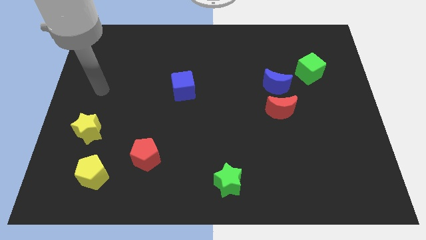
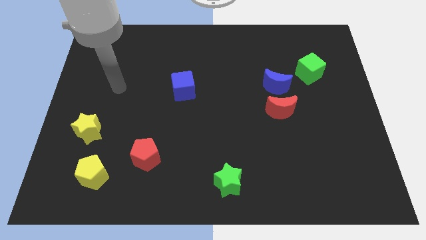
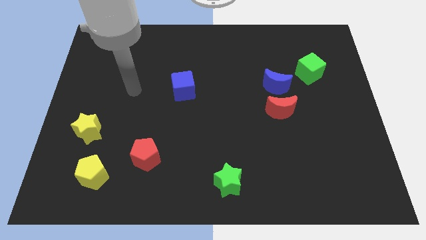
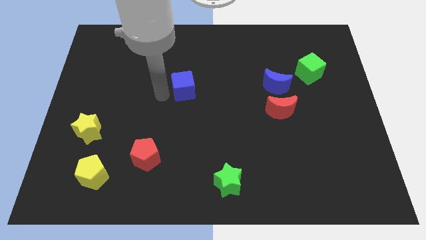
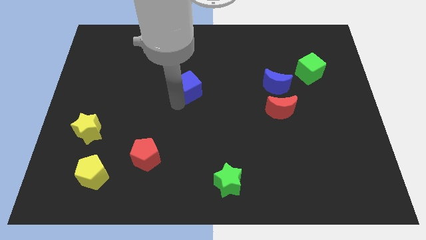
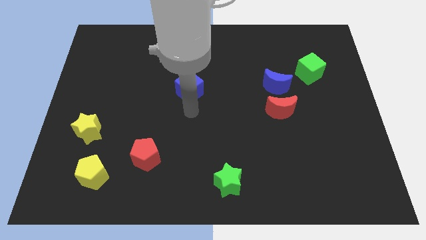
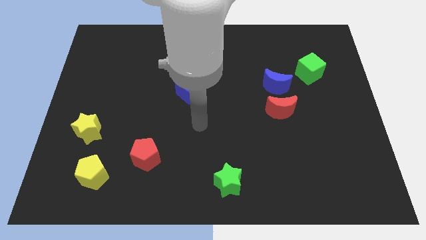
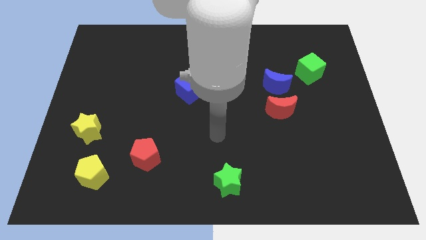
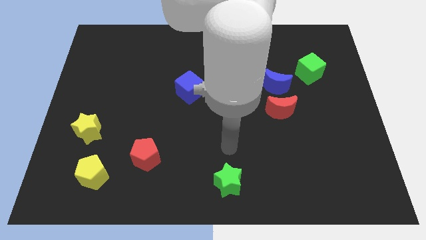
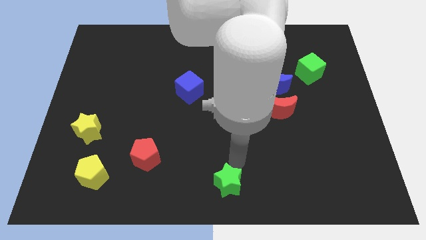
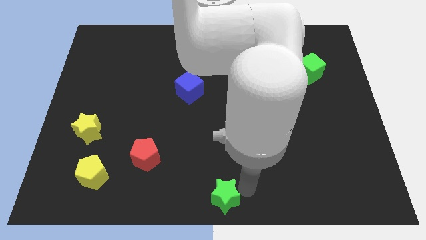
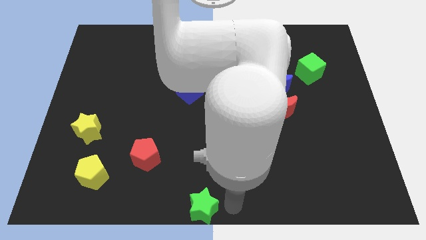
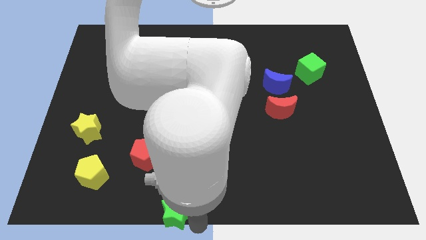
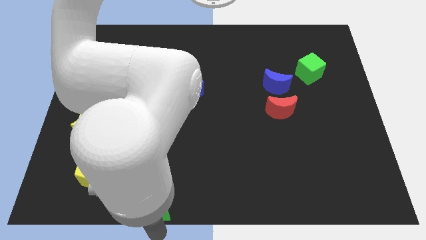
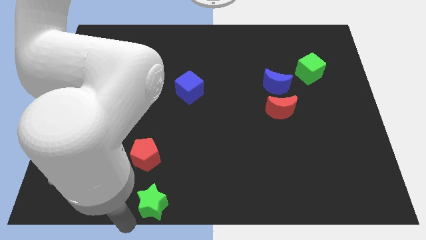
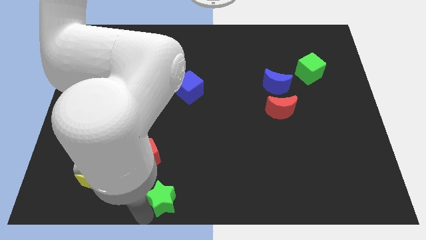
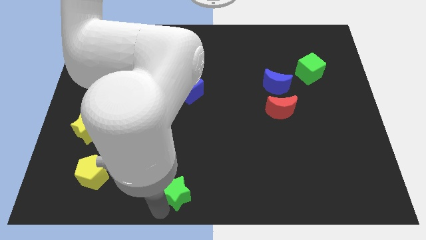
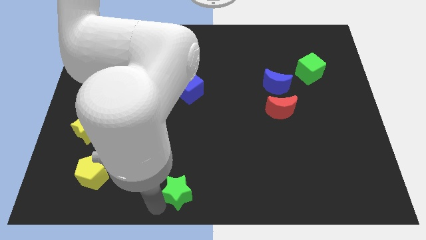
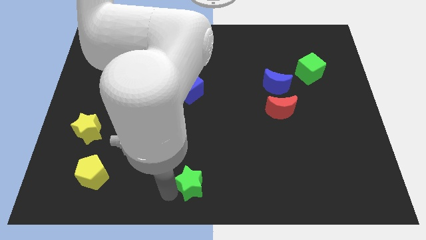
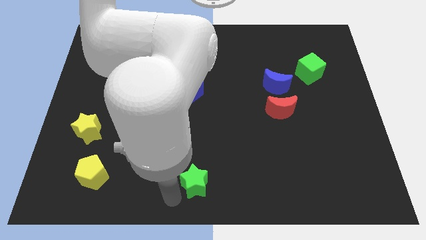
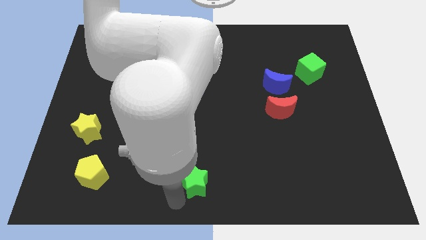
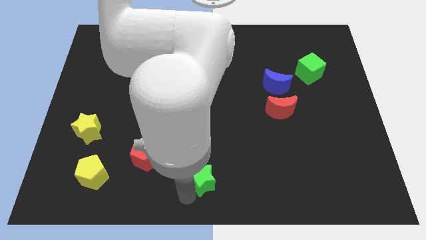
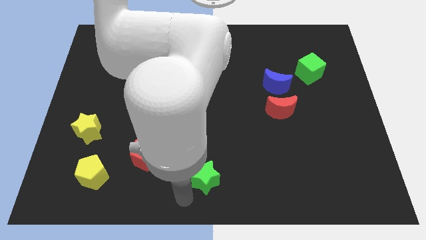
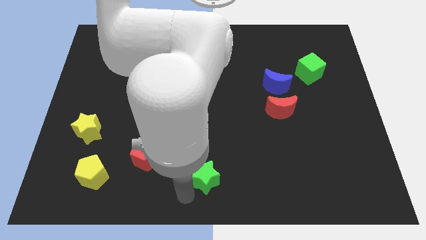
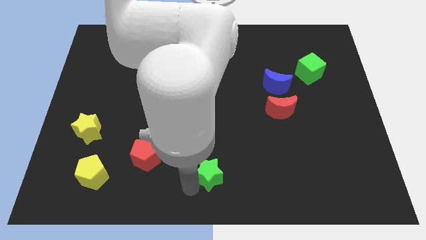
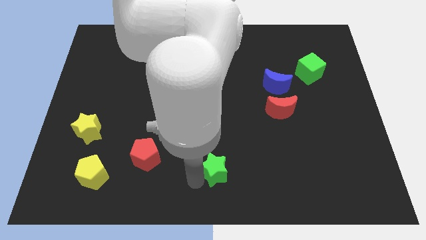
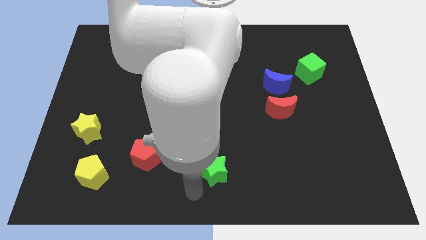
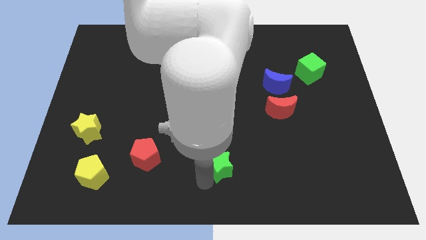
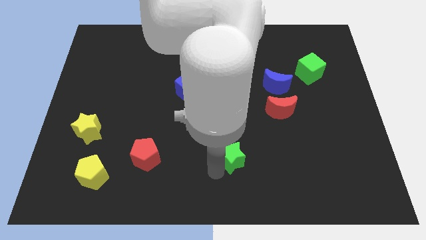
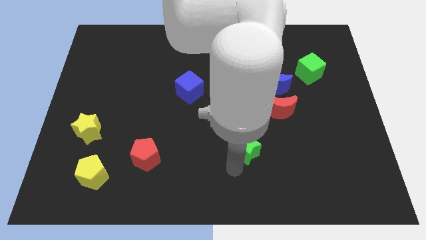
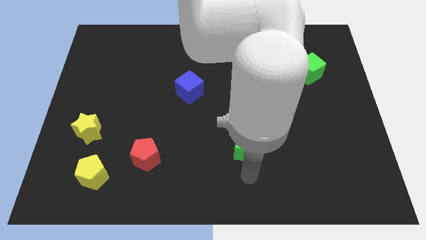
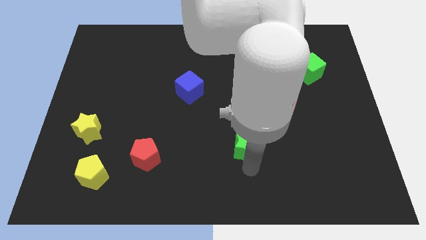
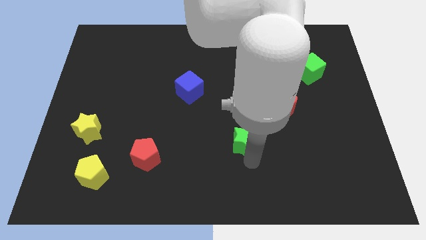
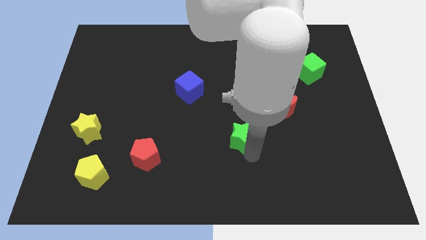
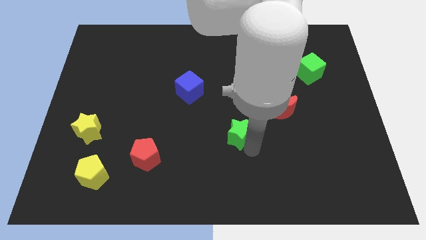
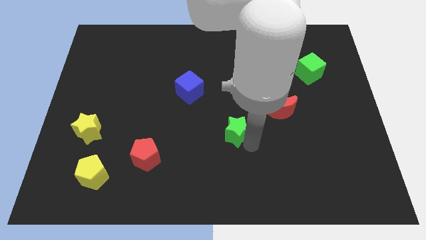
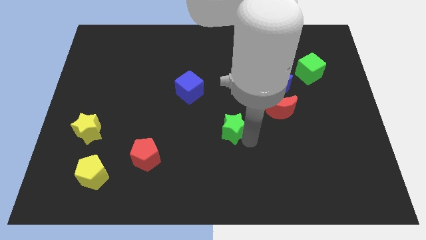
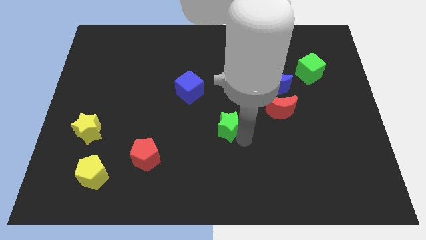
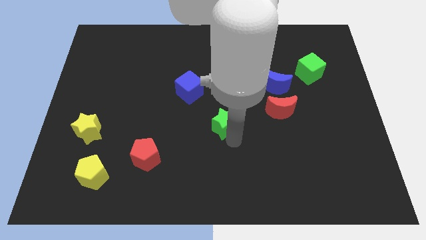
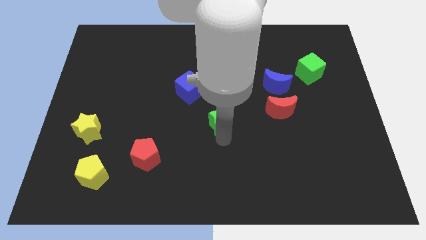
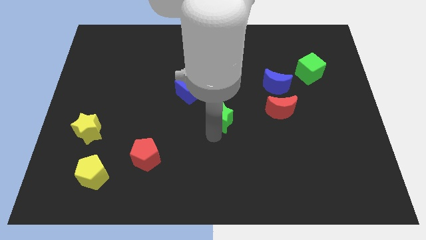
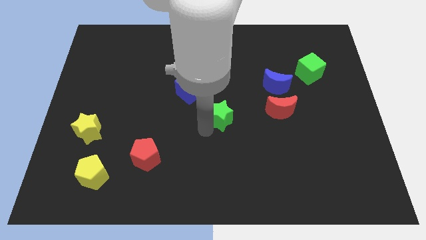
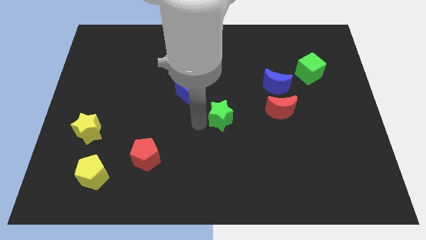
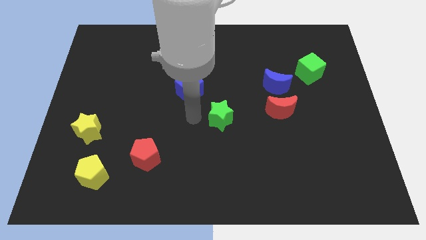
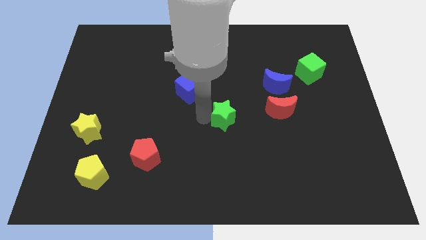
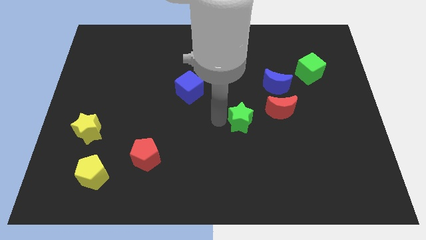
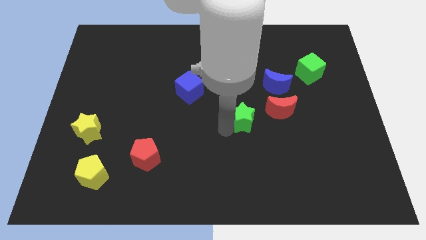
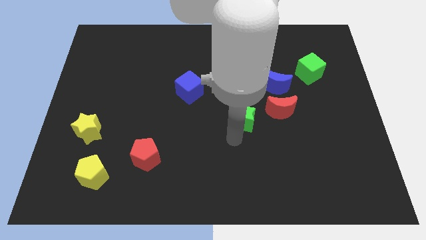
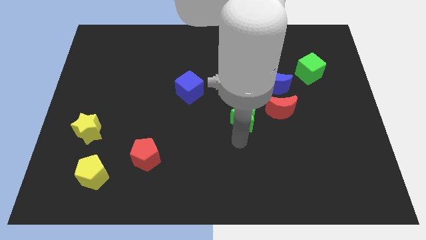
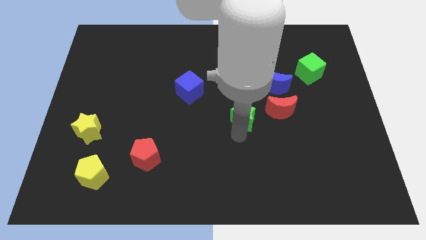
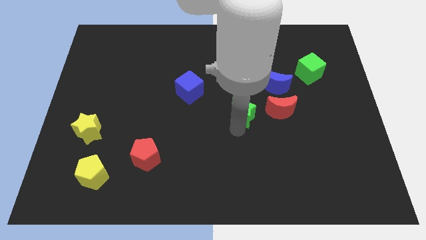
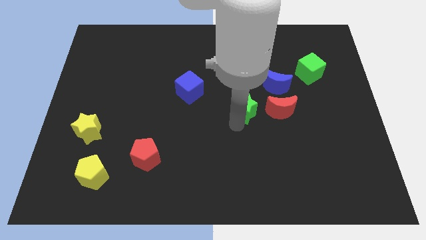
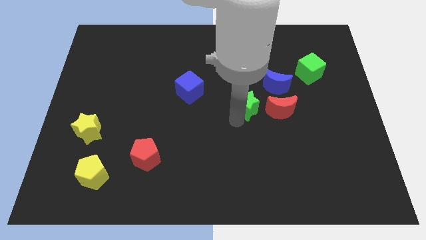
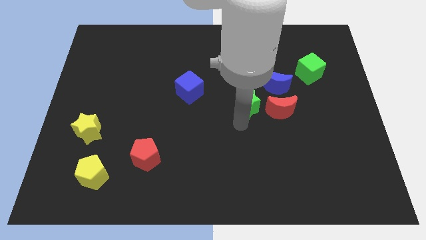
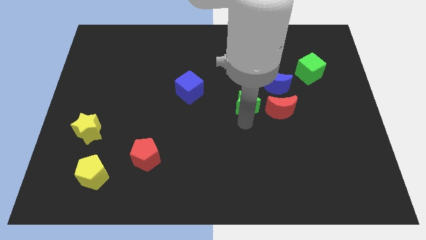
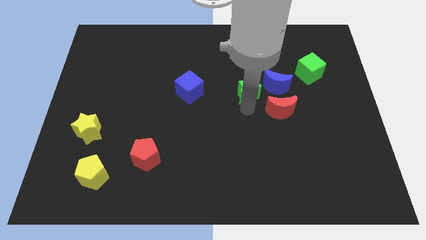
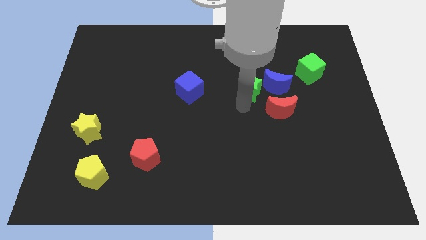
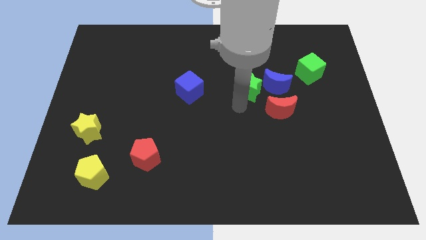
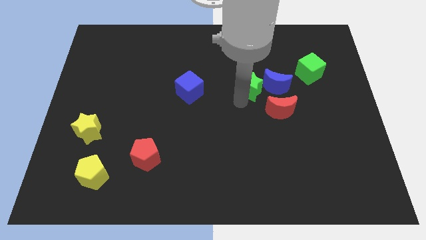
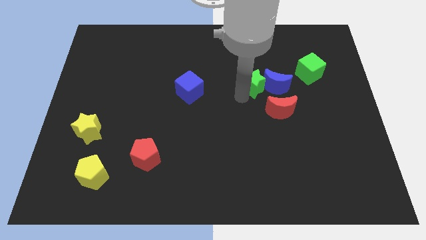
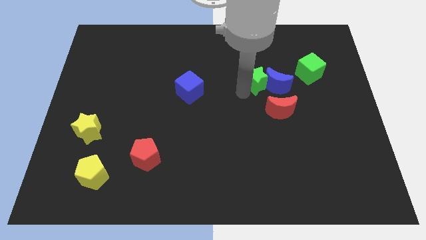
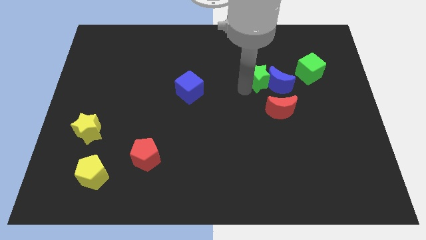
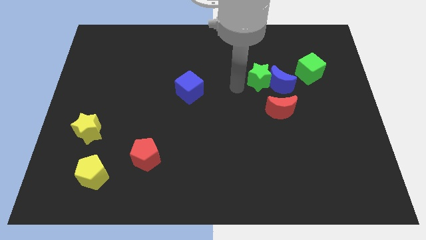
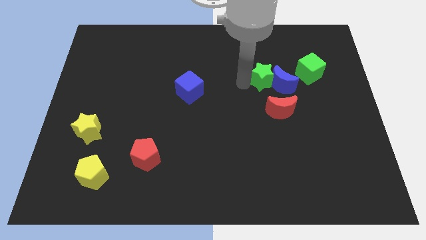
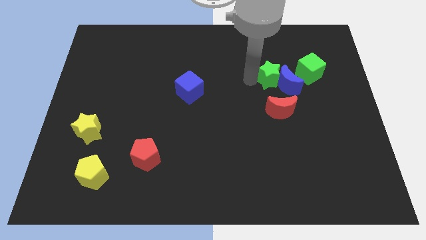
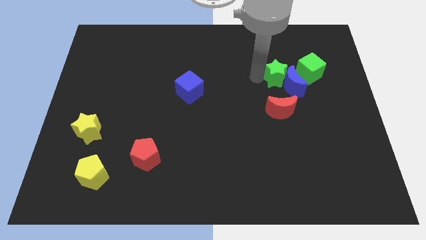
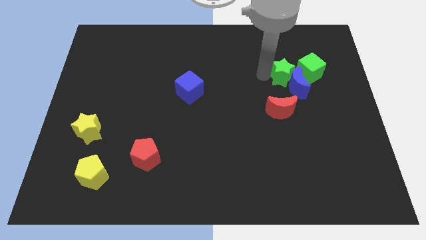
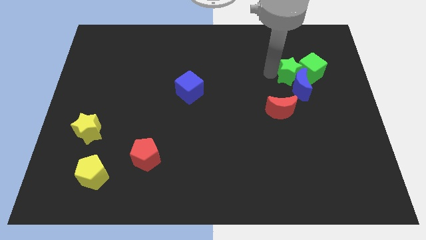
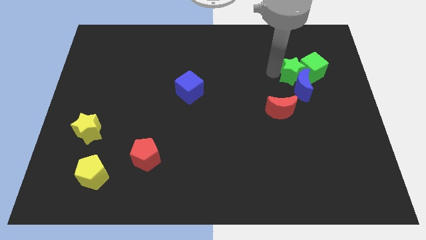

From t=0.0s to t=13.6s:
move the green star diagonally up and to the right of the blue moon

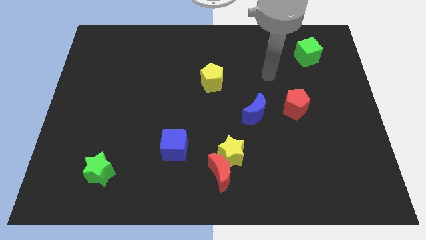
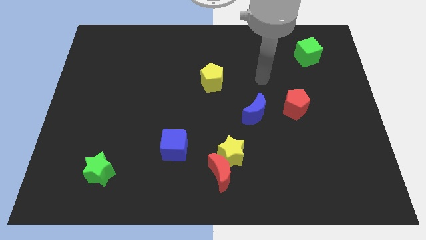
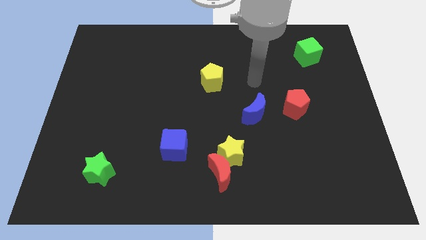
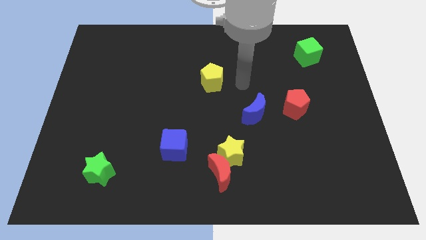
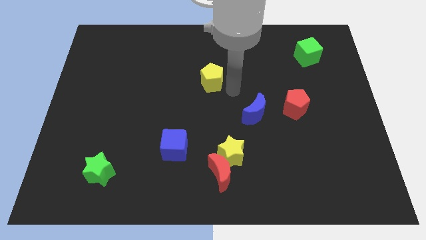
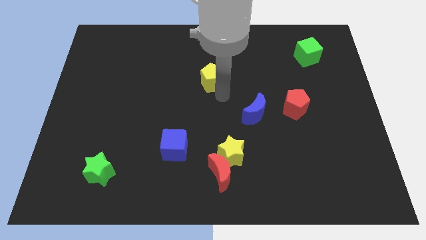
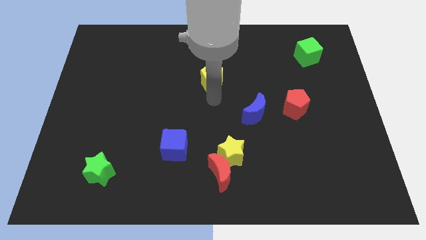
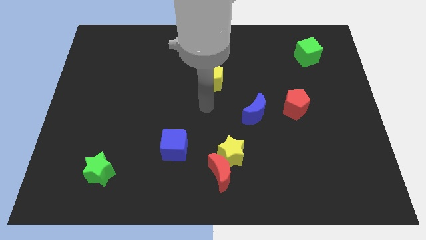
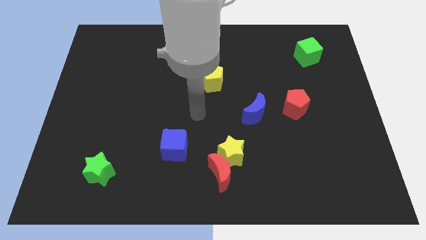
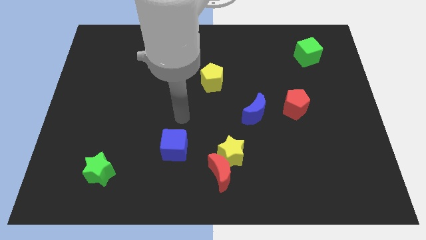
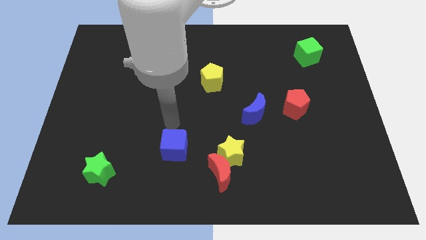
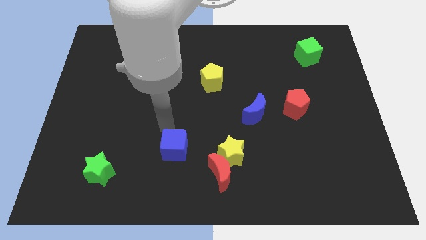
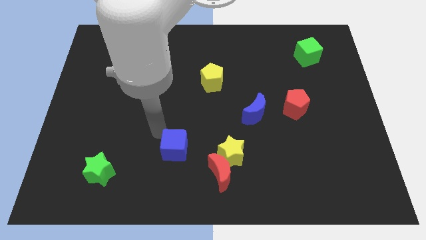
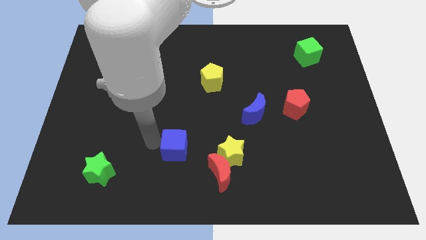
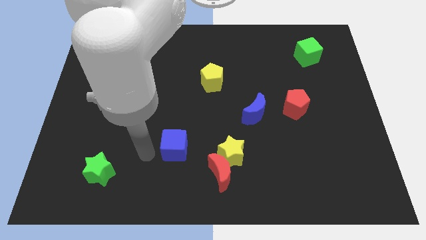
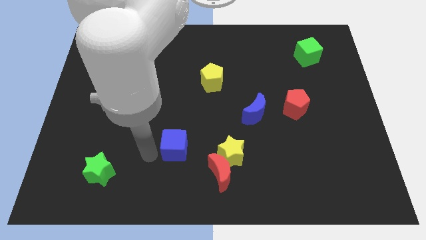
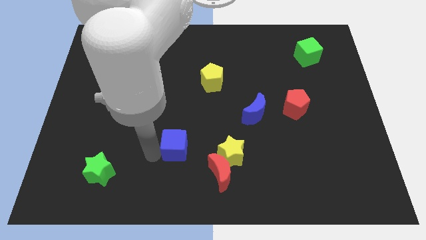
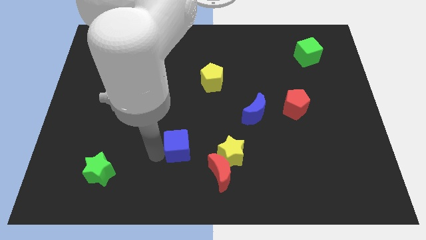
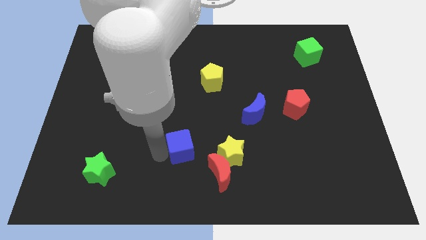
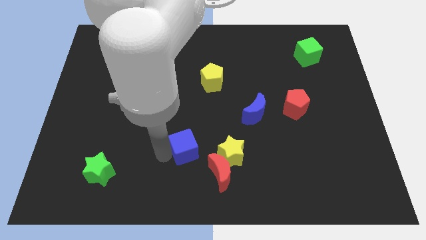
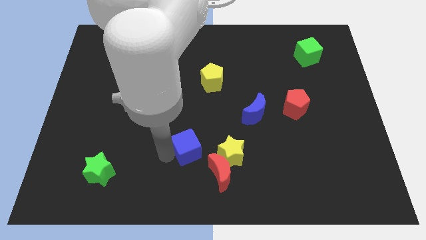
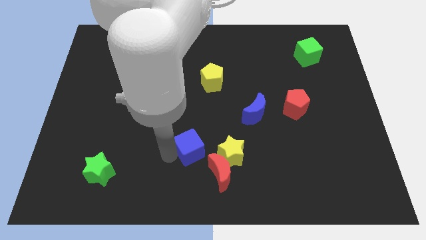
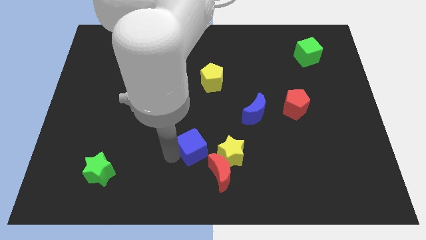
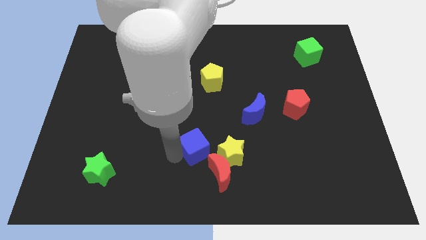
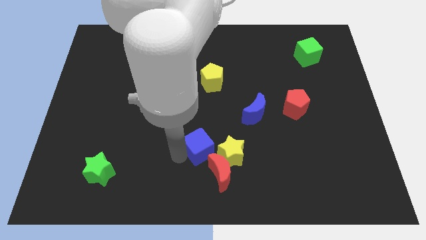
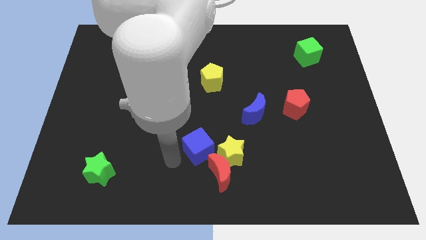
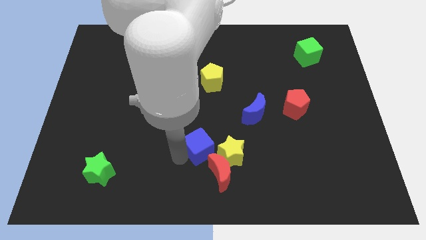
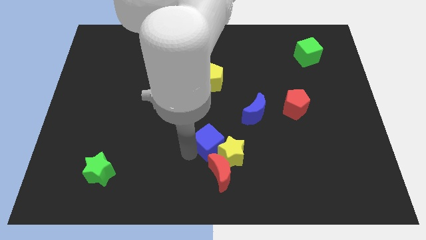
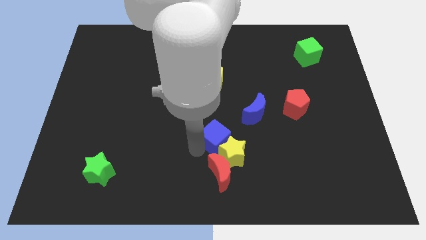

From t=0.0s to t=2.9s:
push the blue cube to the bottom left of the blue moon
